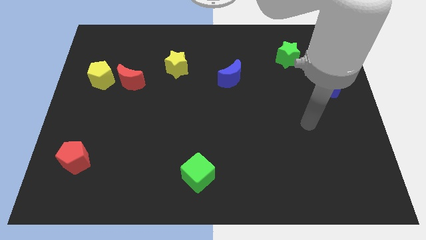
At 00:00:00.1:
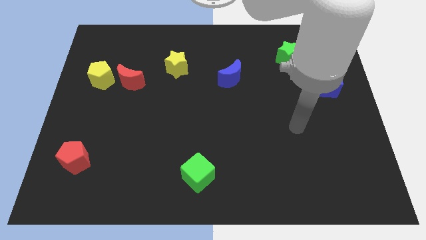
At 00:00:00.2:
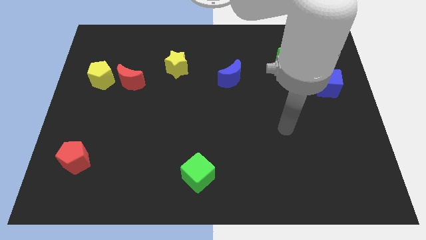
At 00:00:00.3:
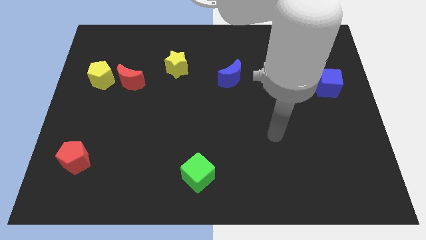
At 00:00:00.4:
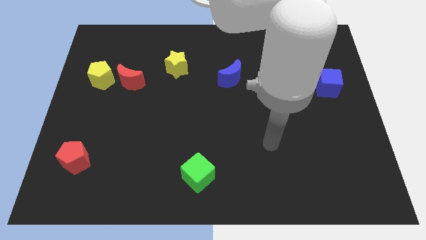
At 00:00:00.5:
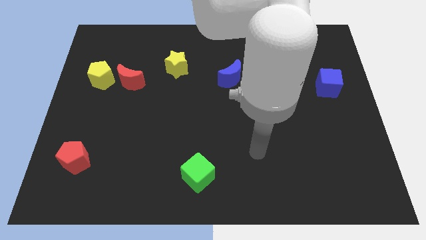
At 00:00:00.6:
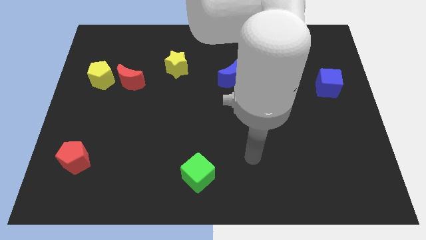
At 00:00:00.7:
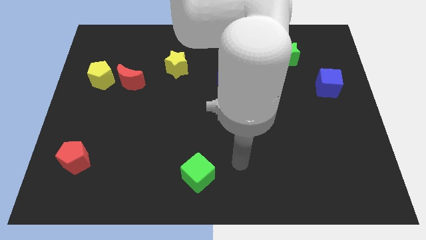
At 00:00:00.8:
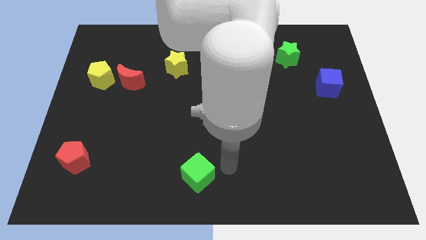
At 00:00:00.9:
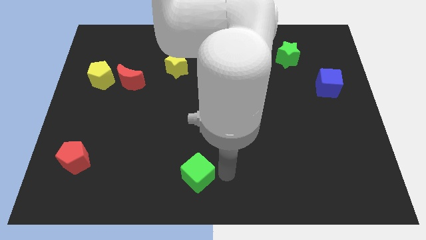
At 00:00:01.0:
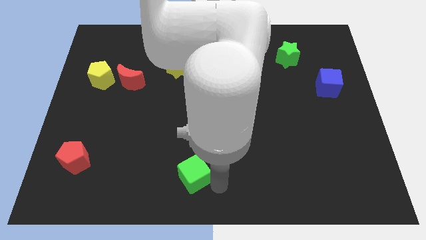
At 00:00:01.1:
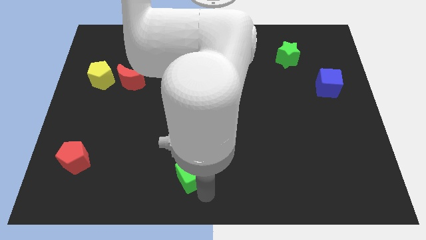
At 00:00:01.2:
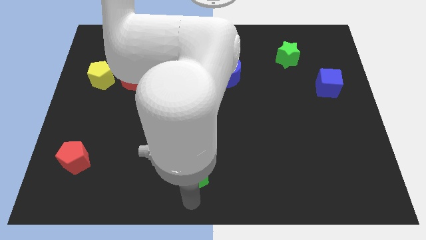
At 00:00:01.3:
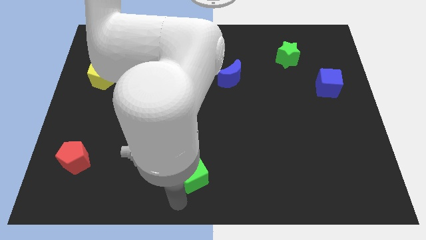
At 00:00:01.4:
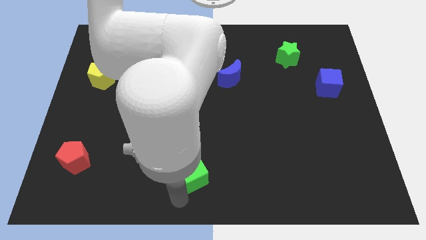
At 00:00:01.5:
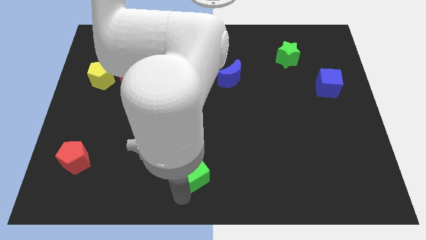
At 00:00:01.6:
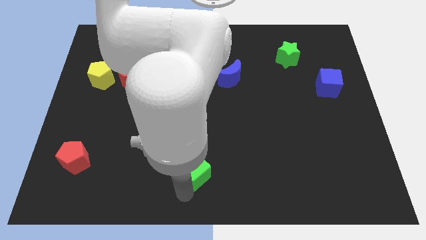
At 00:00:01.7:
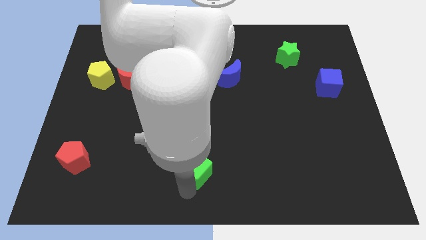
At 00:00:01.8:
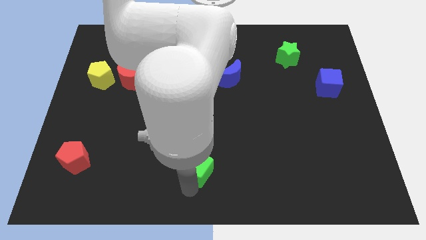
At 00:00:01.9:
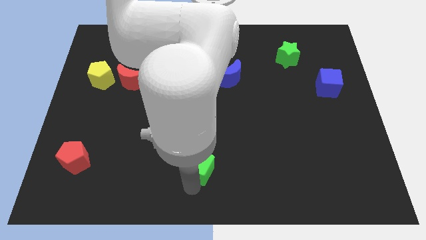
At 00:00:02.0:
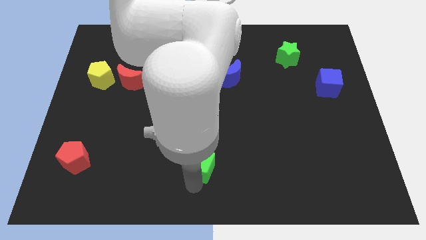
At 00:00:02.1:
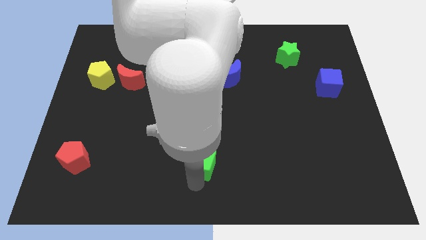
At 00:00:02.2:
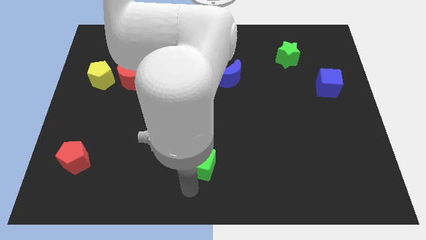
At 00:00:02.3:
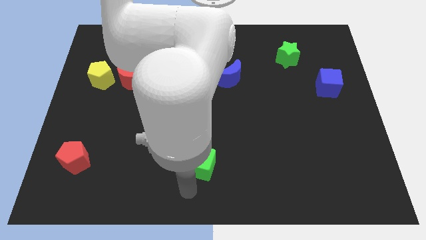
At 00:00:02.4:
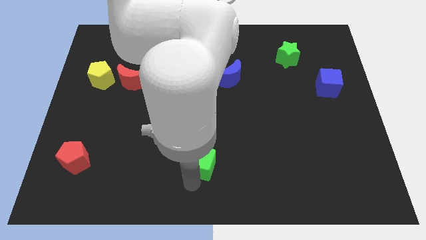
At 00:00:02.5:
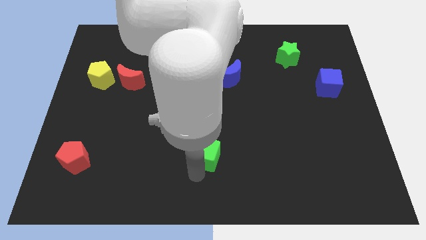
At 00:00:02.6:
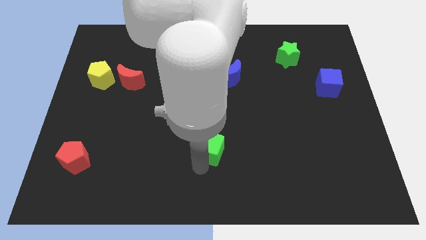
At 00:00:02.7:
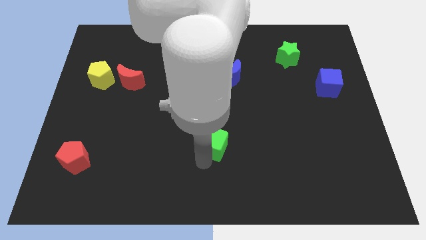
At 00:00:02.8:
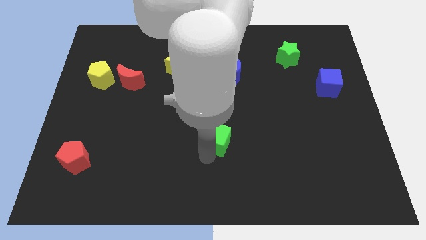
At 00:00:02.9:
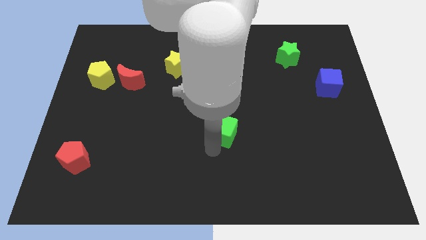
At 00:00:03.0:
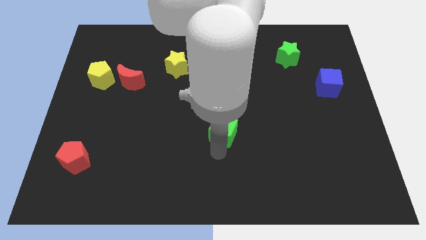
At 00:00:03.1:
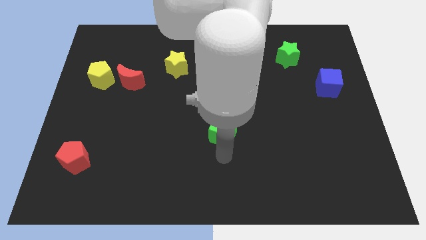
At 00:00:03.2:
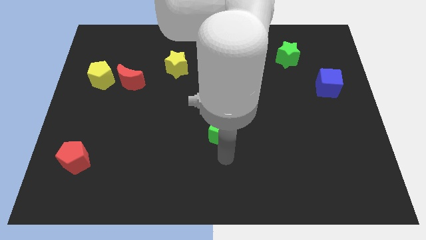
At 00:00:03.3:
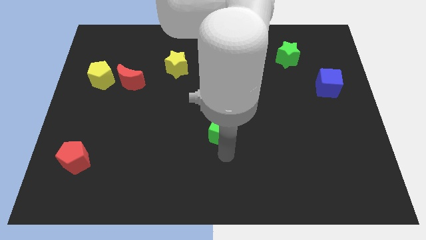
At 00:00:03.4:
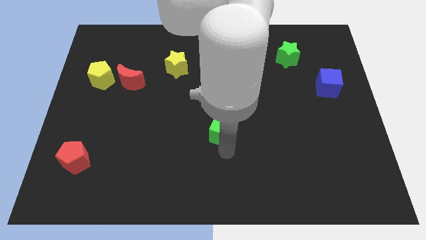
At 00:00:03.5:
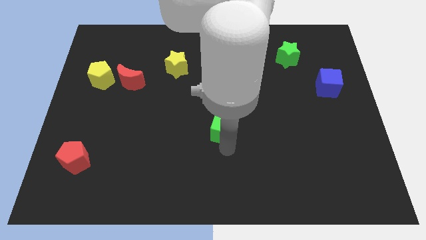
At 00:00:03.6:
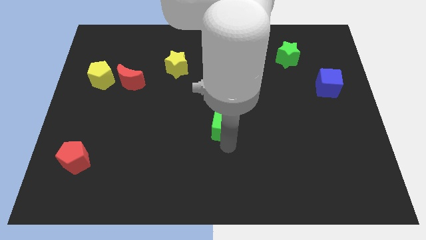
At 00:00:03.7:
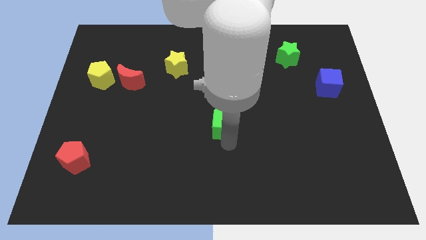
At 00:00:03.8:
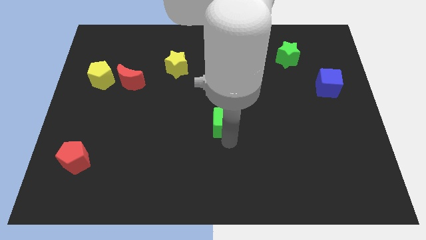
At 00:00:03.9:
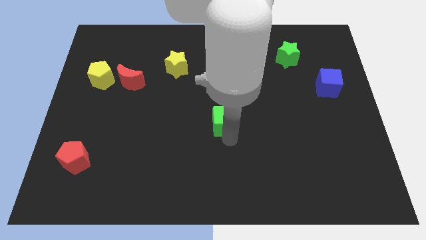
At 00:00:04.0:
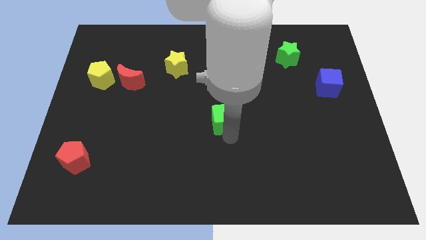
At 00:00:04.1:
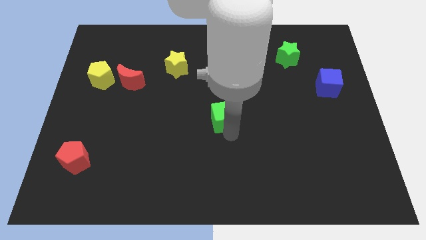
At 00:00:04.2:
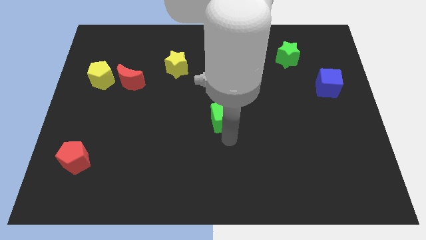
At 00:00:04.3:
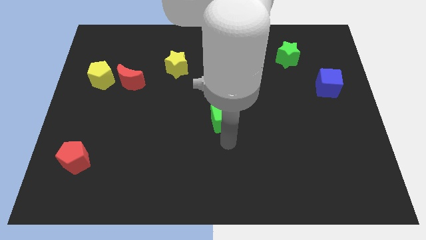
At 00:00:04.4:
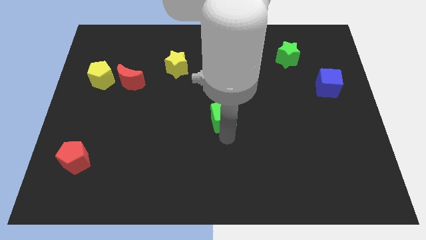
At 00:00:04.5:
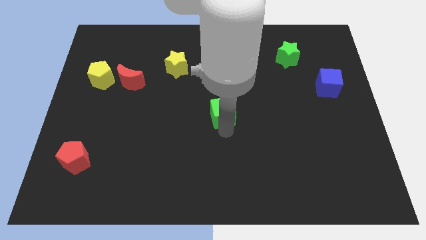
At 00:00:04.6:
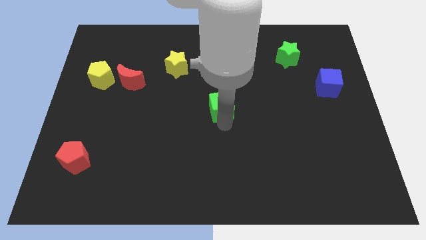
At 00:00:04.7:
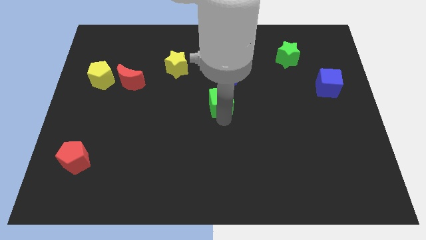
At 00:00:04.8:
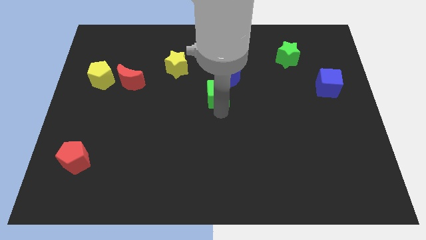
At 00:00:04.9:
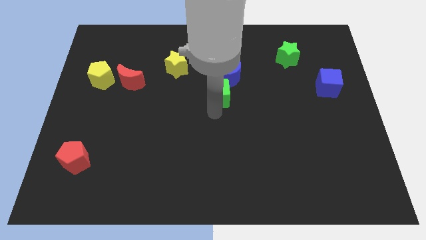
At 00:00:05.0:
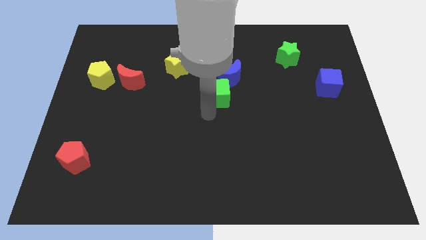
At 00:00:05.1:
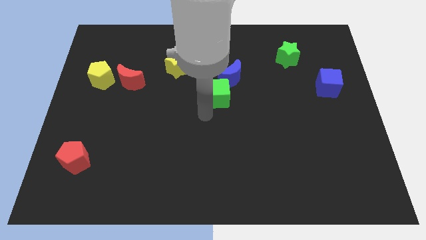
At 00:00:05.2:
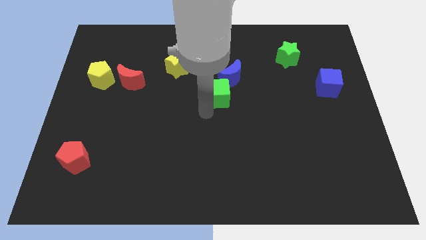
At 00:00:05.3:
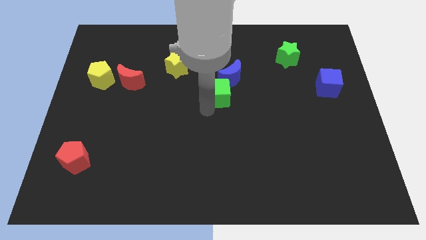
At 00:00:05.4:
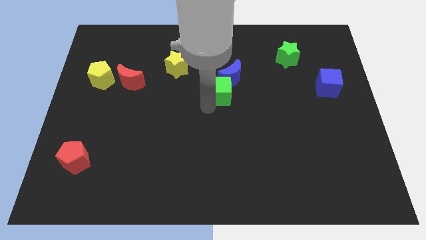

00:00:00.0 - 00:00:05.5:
put the green cube close to the blue moon

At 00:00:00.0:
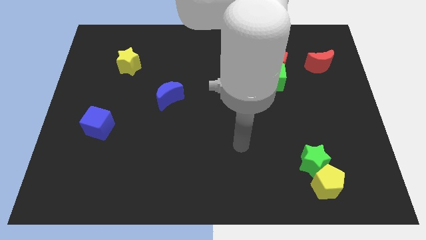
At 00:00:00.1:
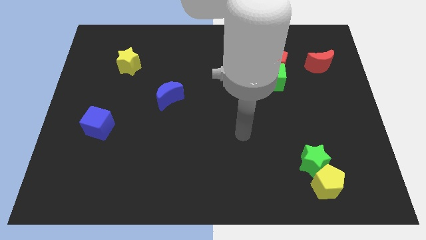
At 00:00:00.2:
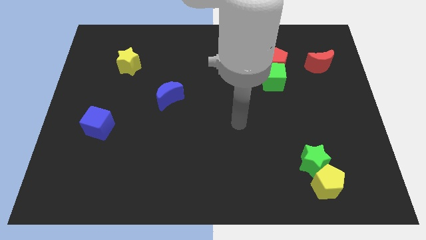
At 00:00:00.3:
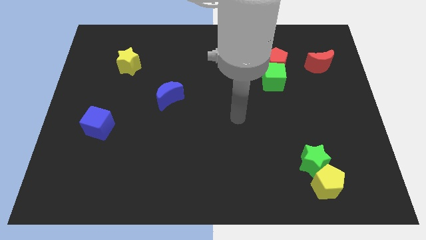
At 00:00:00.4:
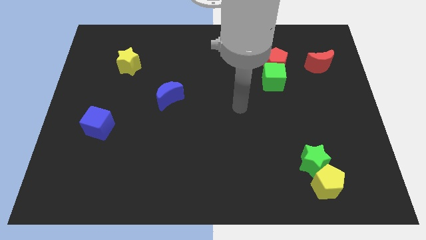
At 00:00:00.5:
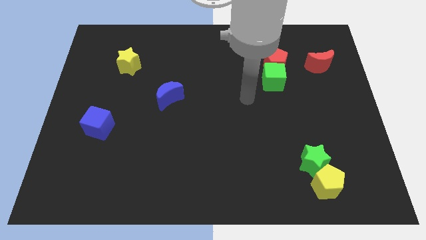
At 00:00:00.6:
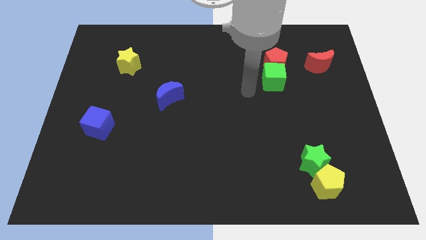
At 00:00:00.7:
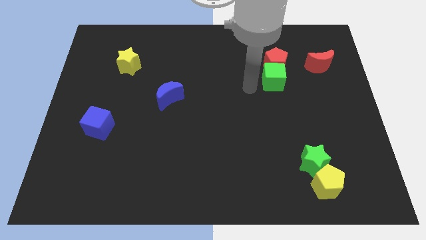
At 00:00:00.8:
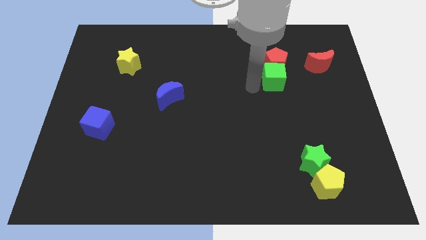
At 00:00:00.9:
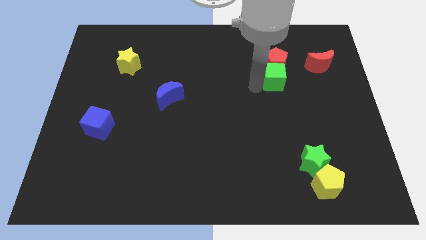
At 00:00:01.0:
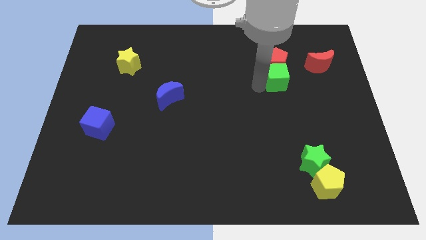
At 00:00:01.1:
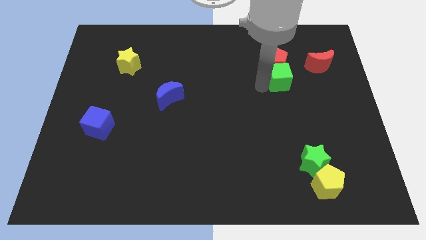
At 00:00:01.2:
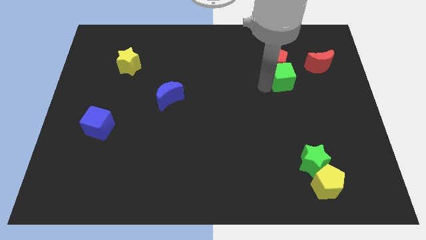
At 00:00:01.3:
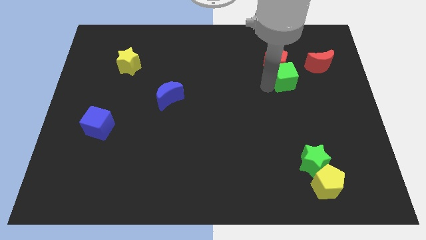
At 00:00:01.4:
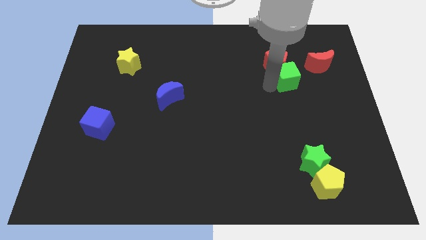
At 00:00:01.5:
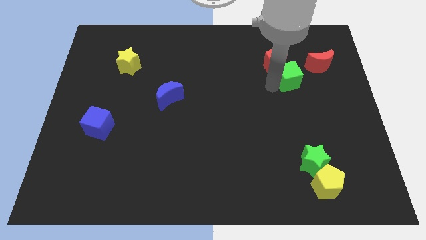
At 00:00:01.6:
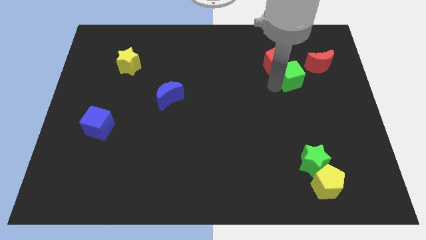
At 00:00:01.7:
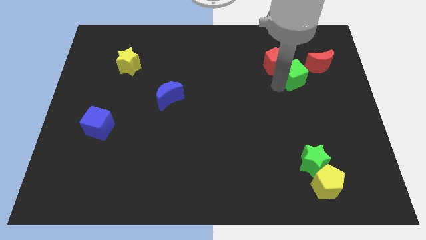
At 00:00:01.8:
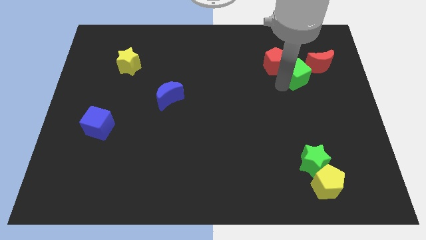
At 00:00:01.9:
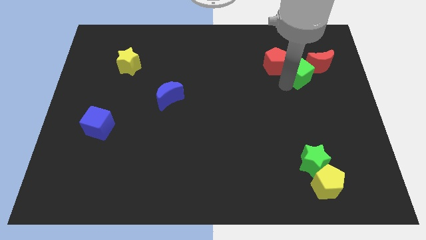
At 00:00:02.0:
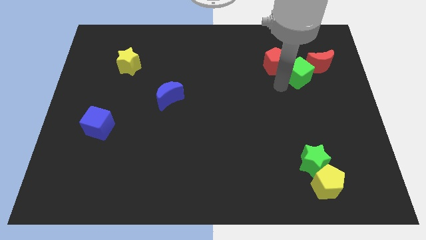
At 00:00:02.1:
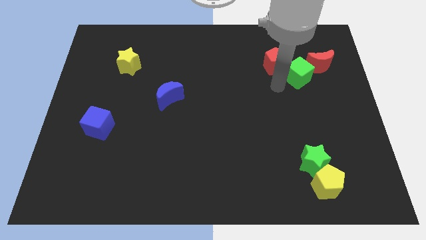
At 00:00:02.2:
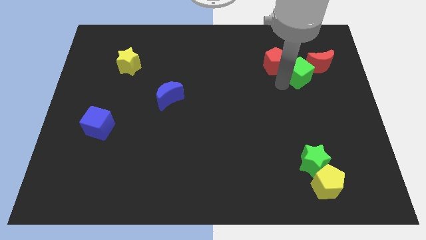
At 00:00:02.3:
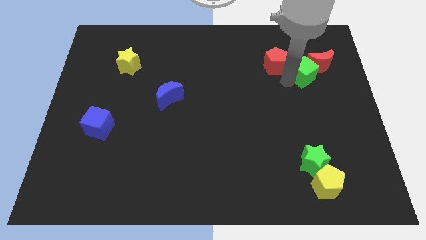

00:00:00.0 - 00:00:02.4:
push the green cube to the red moon
